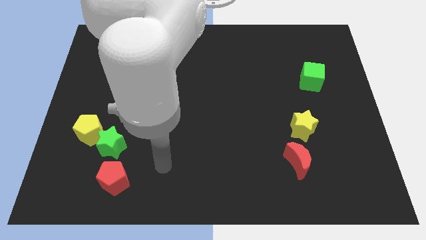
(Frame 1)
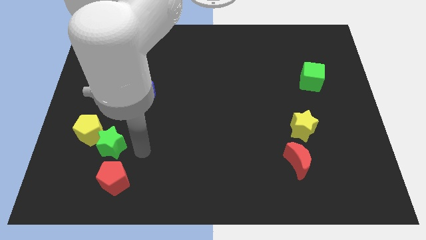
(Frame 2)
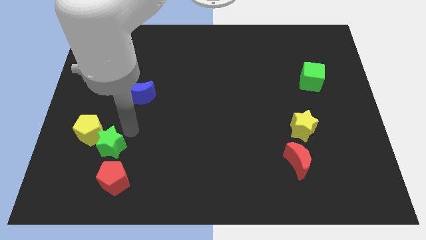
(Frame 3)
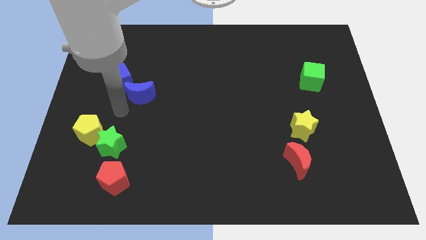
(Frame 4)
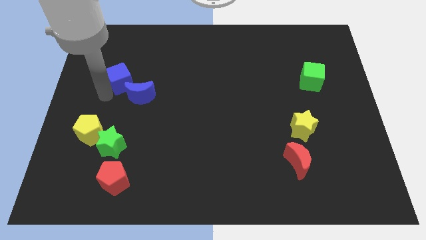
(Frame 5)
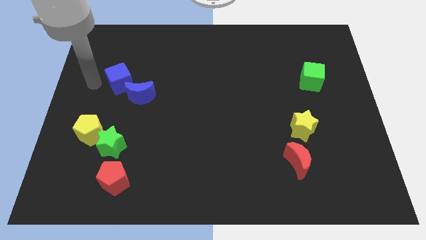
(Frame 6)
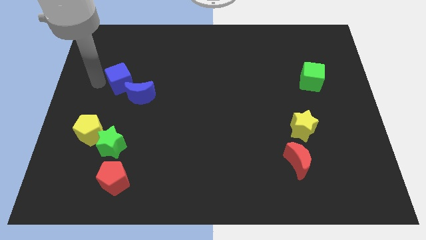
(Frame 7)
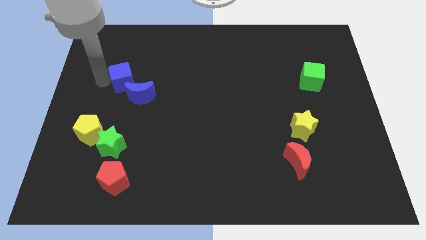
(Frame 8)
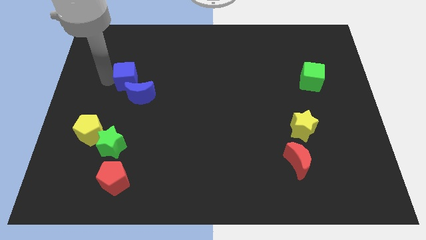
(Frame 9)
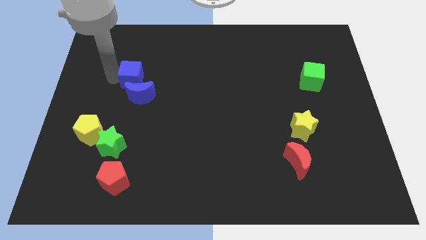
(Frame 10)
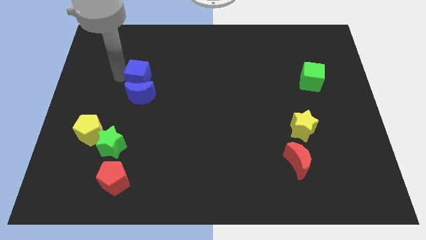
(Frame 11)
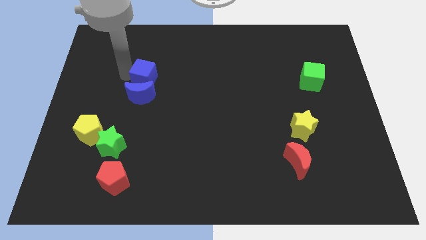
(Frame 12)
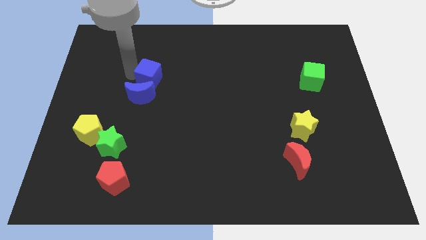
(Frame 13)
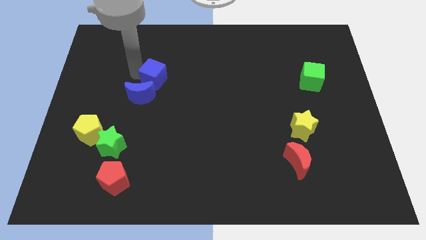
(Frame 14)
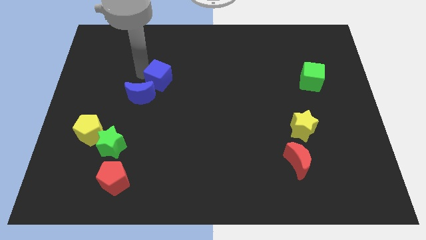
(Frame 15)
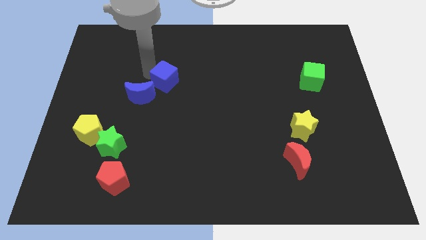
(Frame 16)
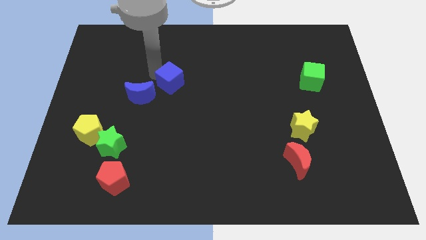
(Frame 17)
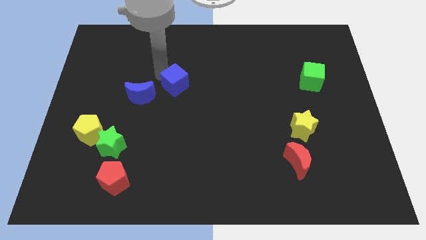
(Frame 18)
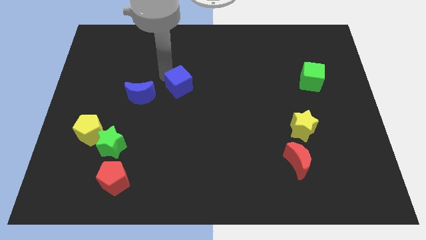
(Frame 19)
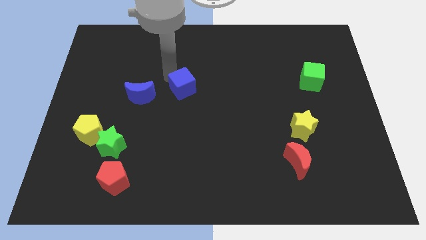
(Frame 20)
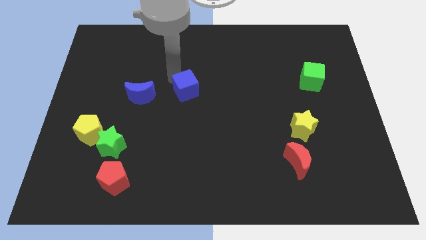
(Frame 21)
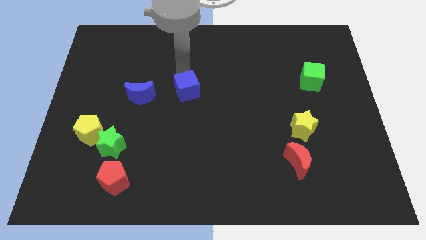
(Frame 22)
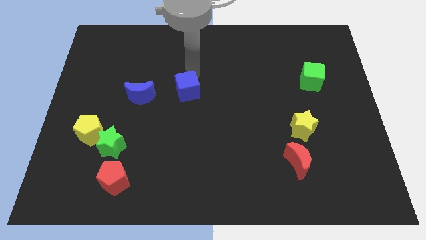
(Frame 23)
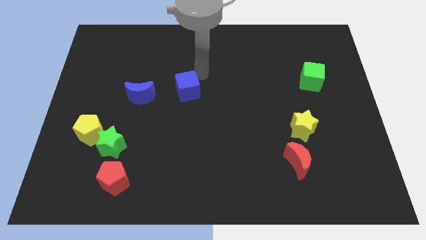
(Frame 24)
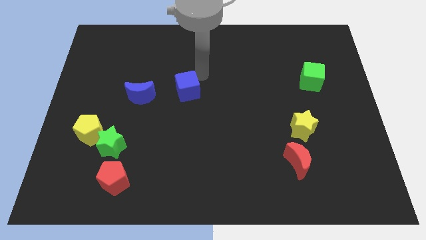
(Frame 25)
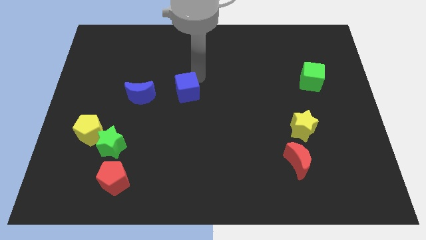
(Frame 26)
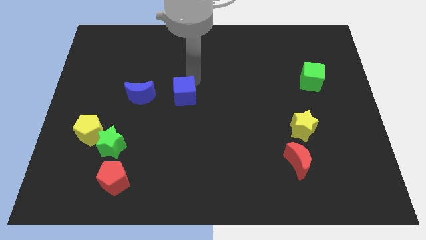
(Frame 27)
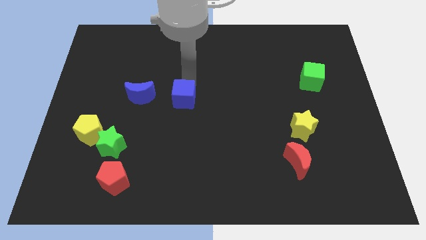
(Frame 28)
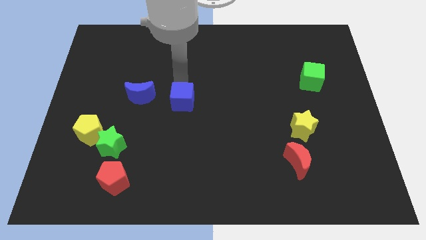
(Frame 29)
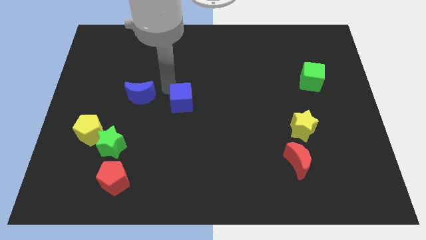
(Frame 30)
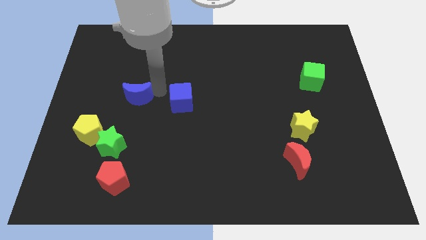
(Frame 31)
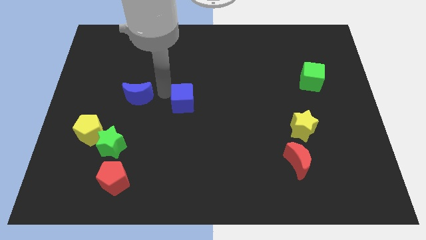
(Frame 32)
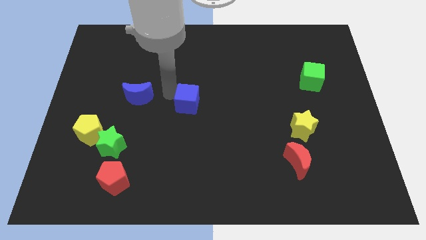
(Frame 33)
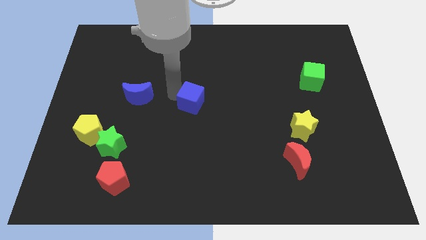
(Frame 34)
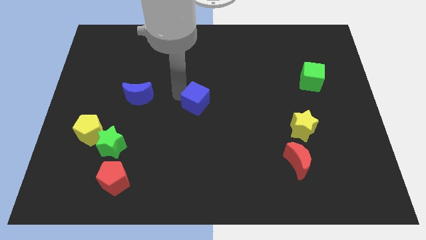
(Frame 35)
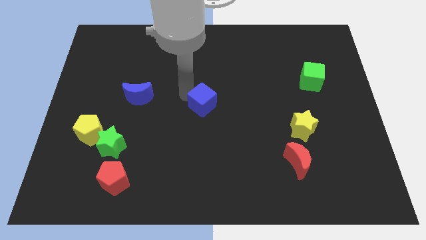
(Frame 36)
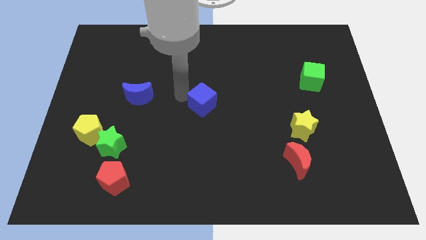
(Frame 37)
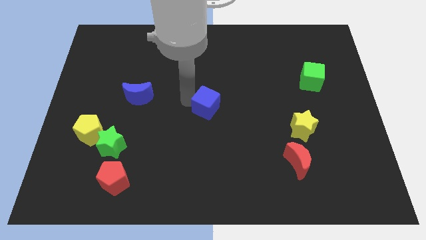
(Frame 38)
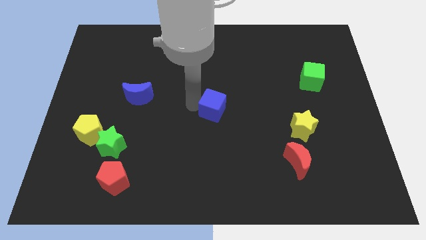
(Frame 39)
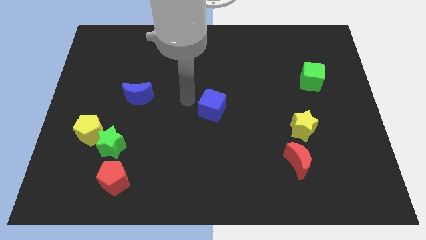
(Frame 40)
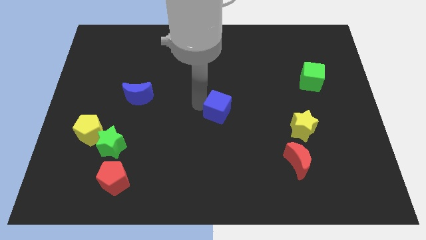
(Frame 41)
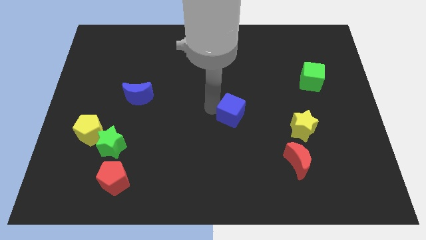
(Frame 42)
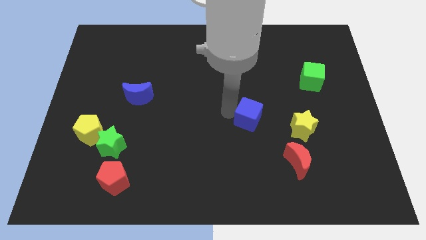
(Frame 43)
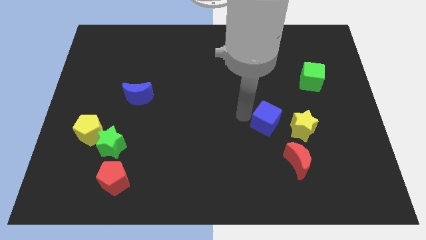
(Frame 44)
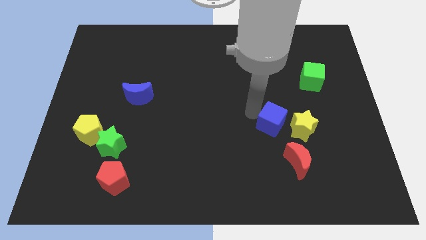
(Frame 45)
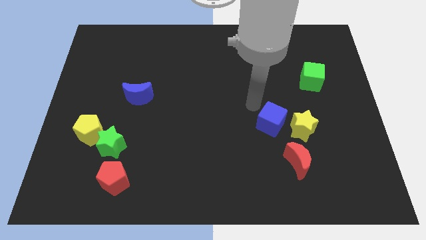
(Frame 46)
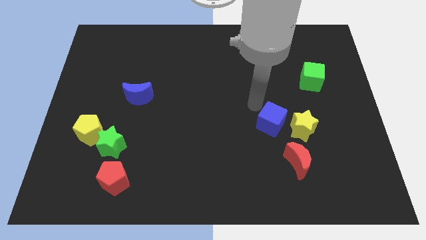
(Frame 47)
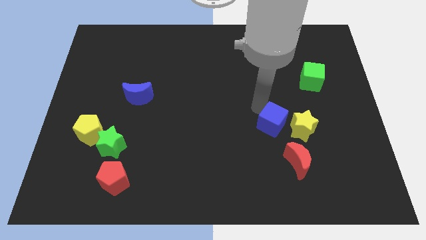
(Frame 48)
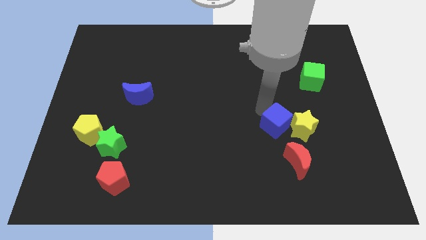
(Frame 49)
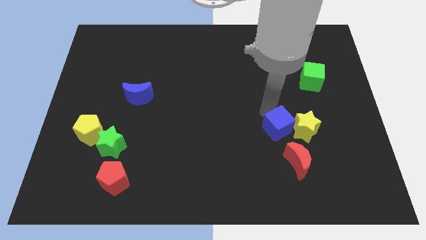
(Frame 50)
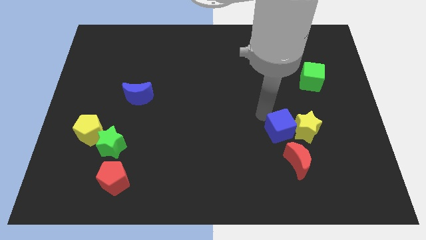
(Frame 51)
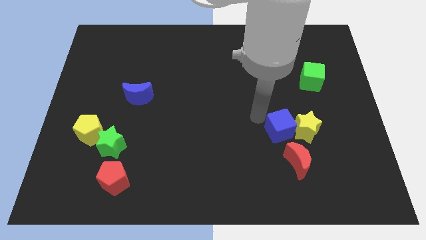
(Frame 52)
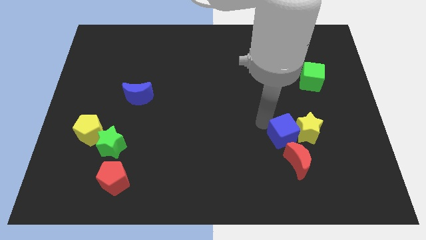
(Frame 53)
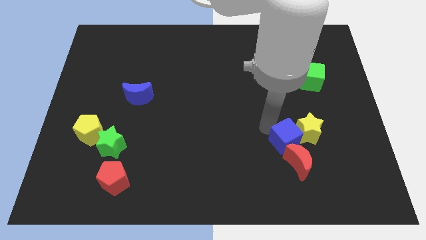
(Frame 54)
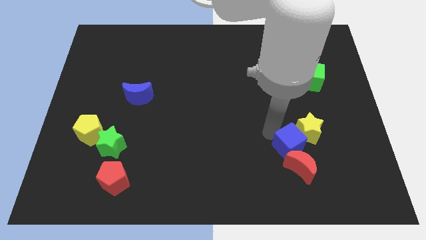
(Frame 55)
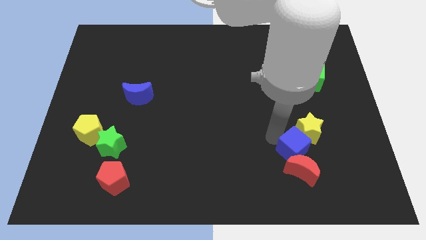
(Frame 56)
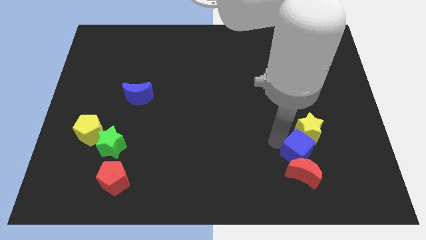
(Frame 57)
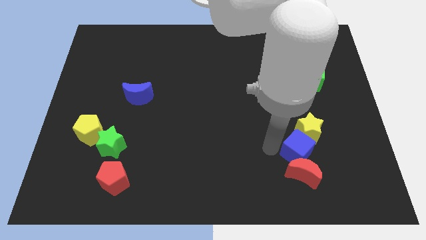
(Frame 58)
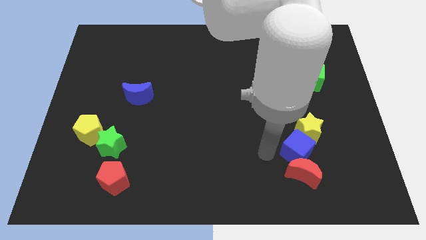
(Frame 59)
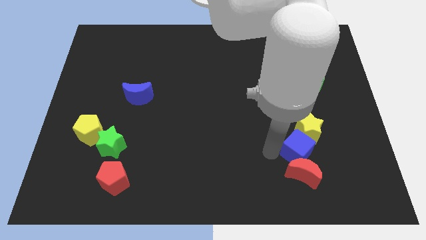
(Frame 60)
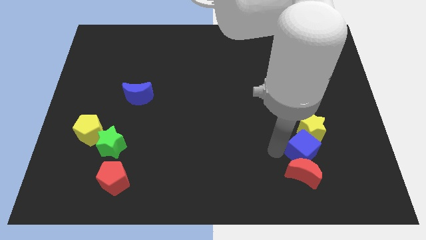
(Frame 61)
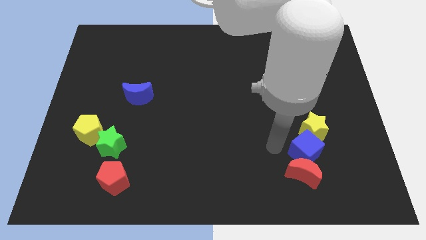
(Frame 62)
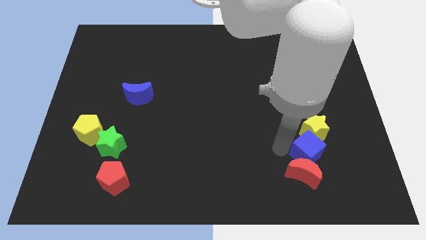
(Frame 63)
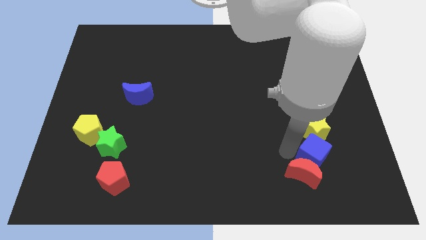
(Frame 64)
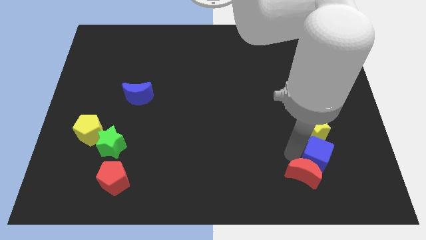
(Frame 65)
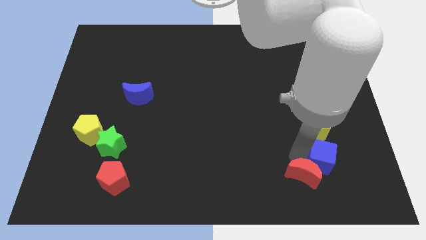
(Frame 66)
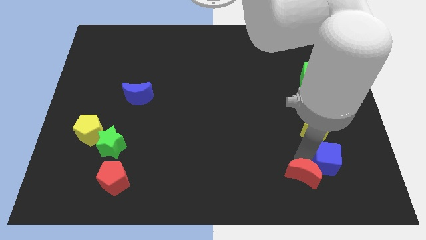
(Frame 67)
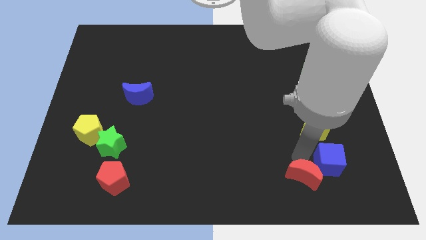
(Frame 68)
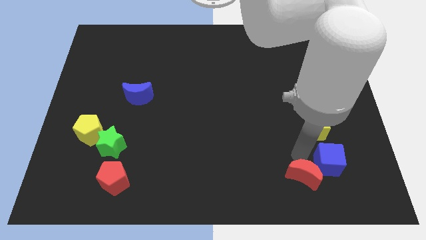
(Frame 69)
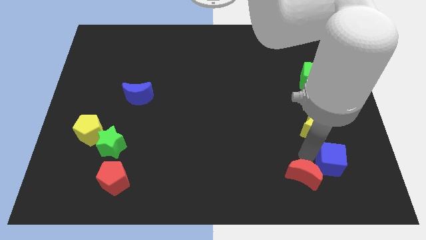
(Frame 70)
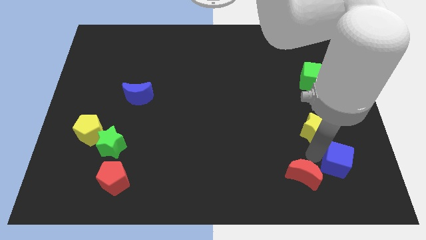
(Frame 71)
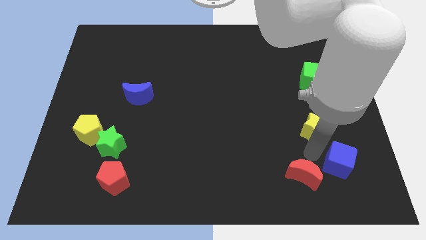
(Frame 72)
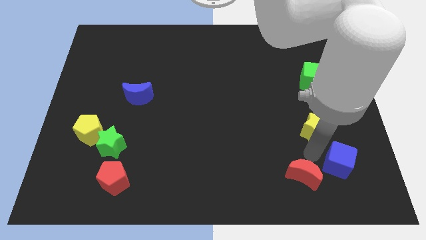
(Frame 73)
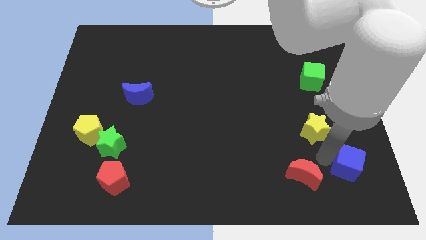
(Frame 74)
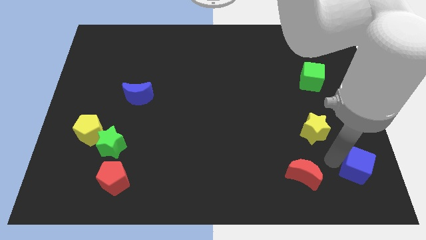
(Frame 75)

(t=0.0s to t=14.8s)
put the blue cube to the bottom right
